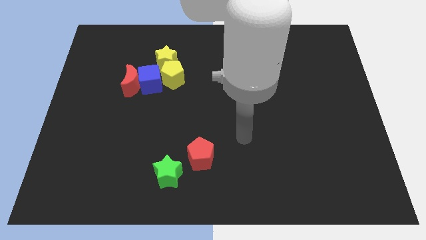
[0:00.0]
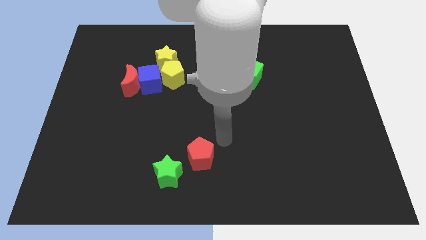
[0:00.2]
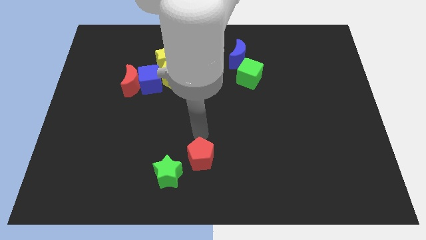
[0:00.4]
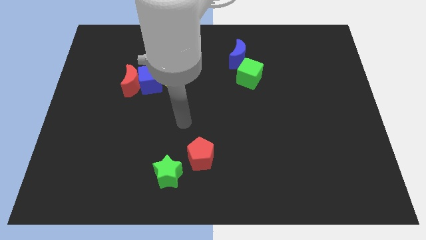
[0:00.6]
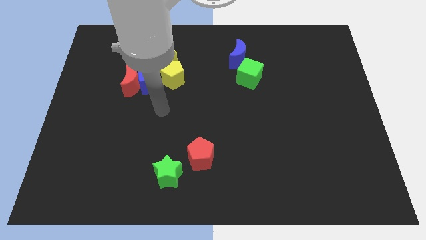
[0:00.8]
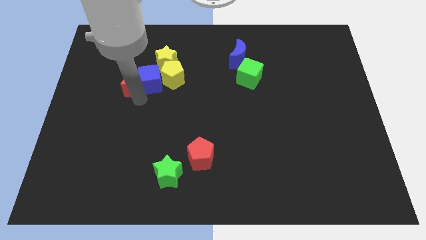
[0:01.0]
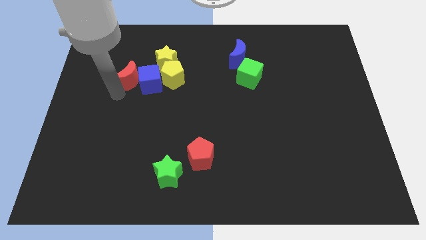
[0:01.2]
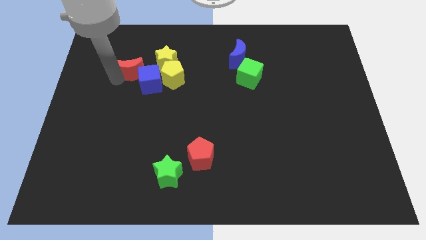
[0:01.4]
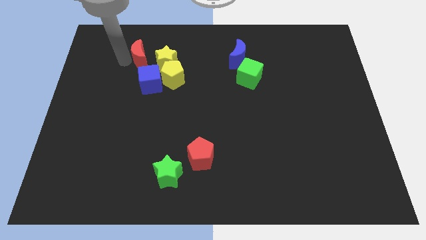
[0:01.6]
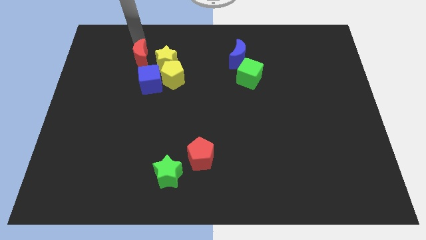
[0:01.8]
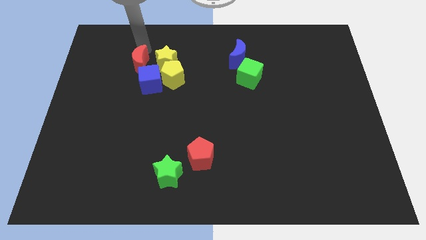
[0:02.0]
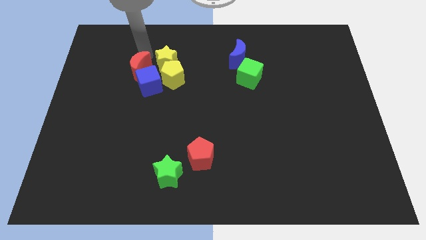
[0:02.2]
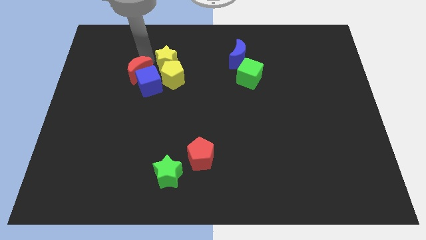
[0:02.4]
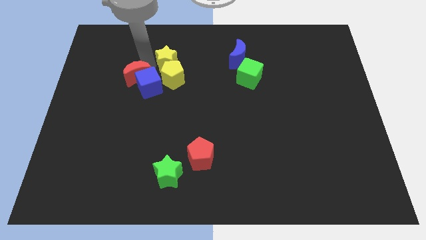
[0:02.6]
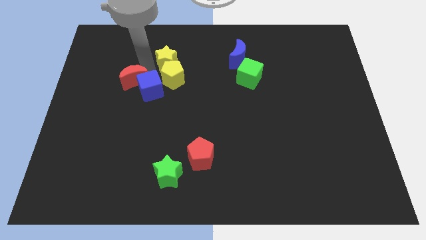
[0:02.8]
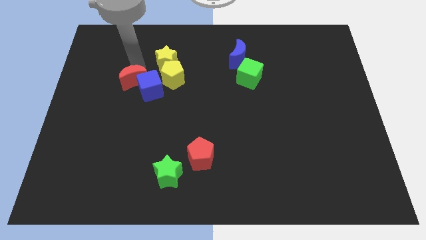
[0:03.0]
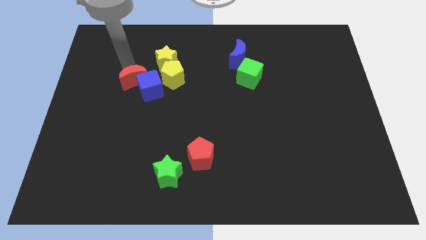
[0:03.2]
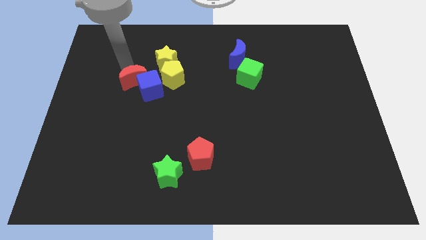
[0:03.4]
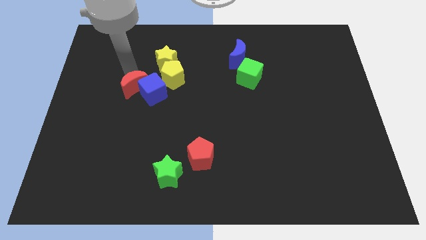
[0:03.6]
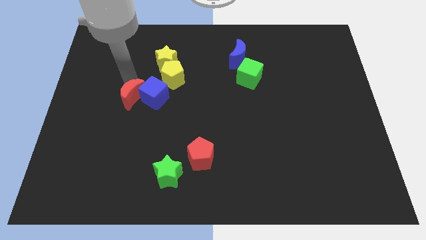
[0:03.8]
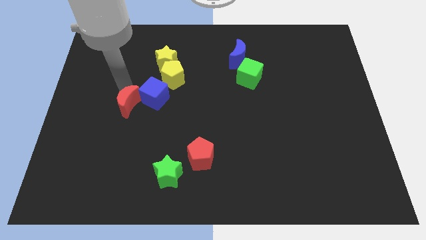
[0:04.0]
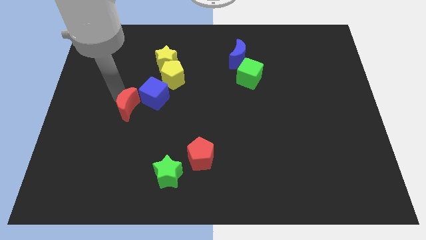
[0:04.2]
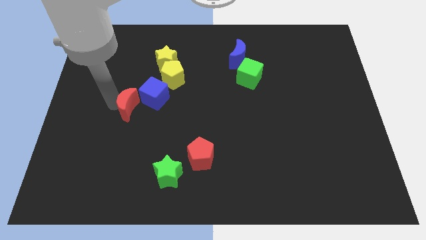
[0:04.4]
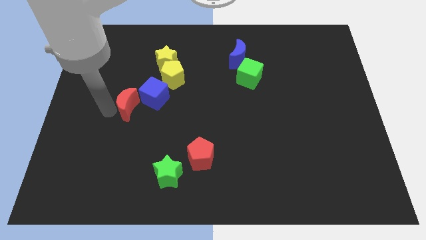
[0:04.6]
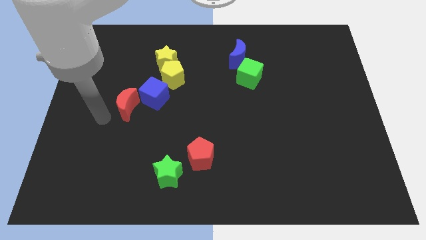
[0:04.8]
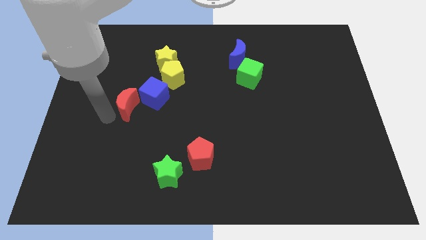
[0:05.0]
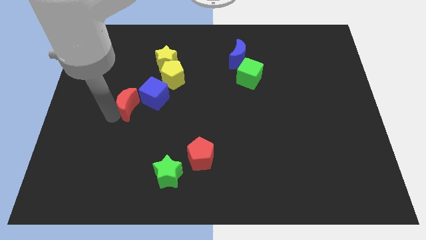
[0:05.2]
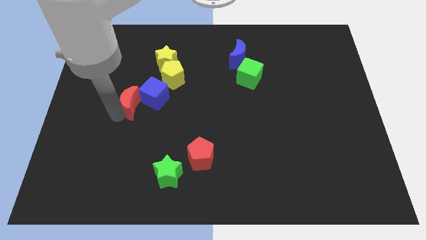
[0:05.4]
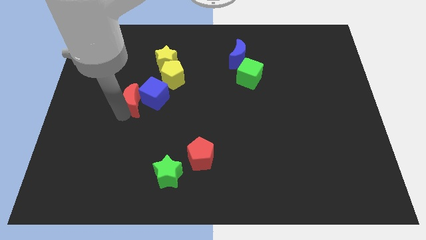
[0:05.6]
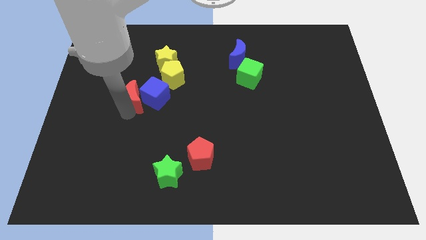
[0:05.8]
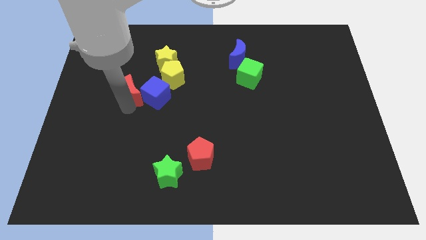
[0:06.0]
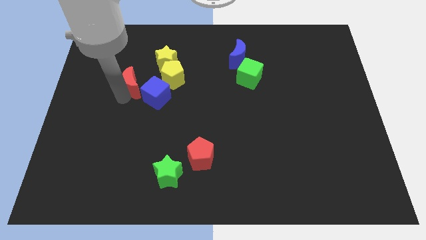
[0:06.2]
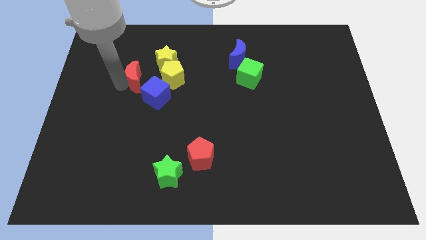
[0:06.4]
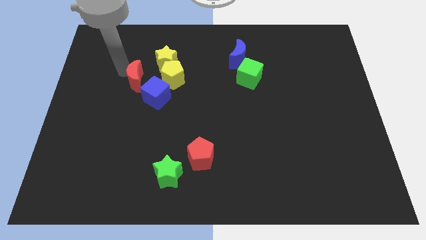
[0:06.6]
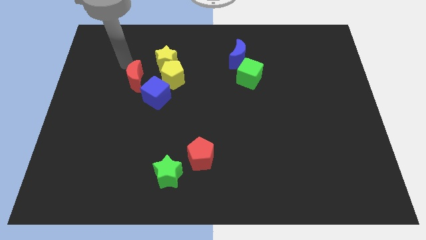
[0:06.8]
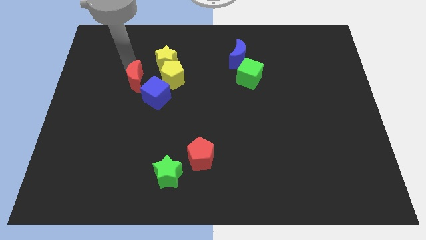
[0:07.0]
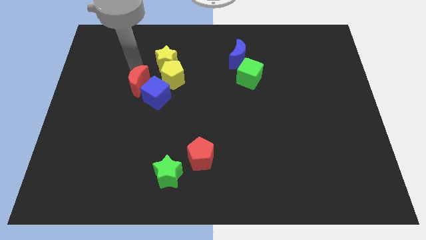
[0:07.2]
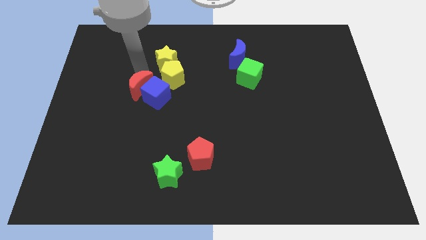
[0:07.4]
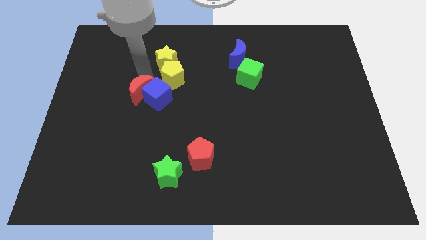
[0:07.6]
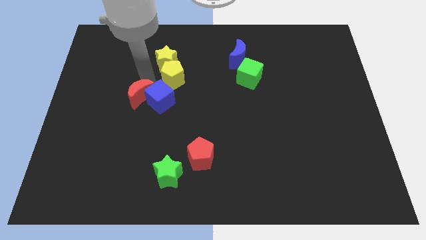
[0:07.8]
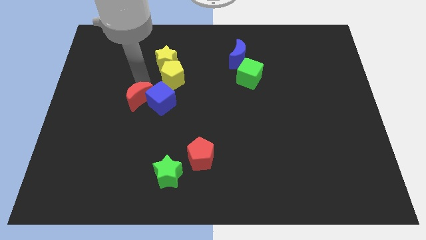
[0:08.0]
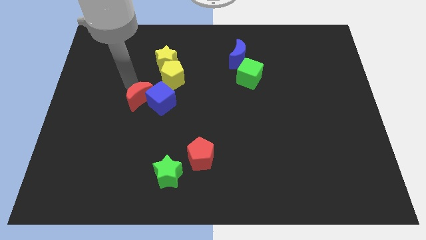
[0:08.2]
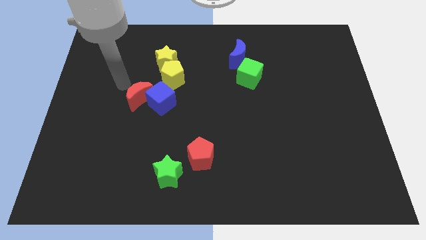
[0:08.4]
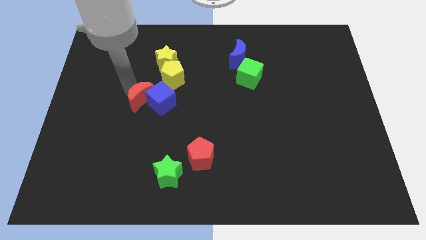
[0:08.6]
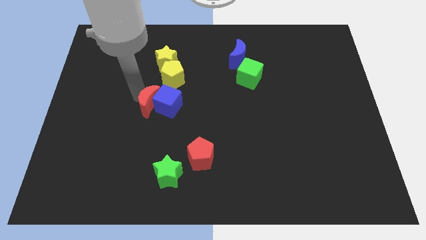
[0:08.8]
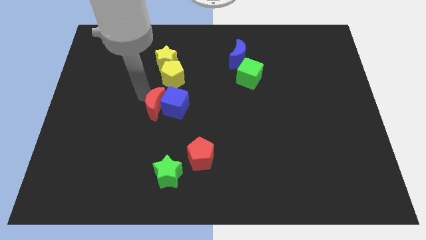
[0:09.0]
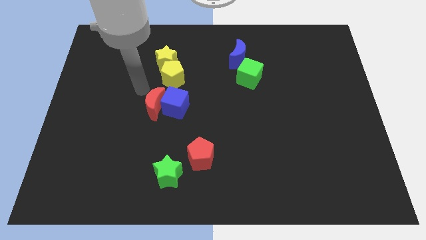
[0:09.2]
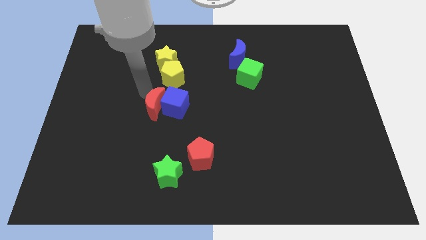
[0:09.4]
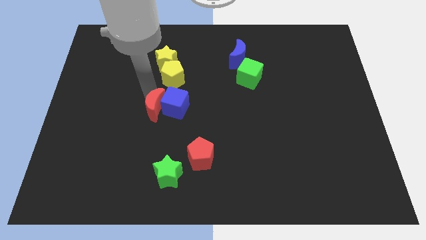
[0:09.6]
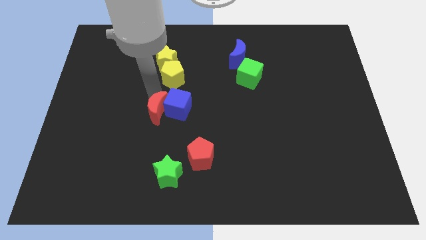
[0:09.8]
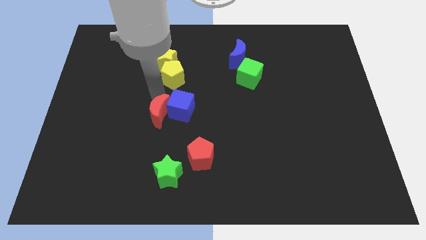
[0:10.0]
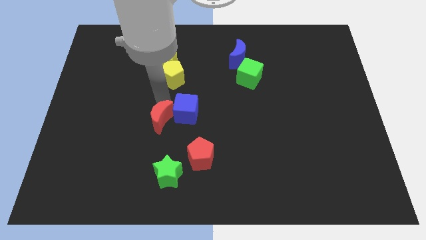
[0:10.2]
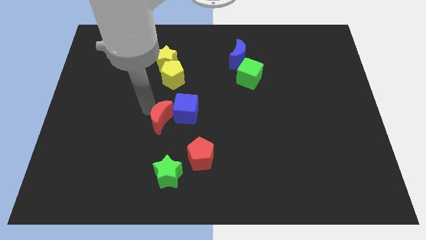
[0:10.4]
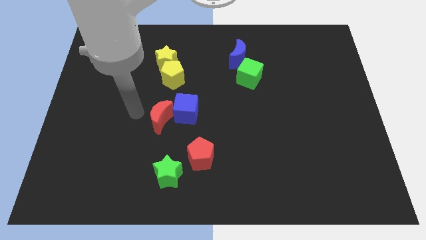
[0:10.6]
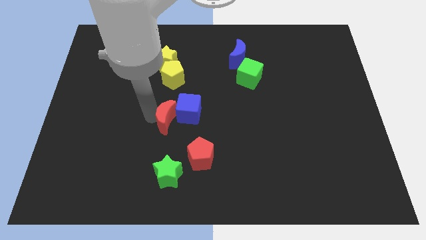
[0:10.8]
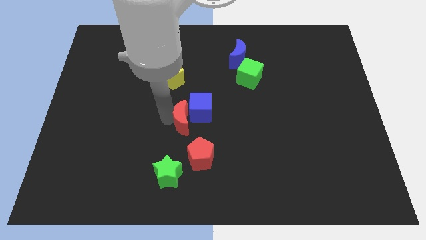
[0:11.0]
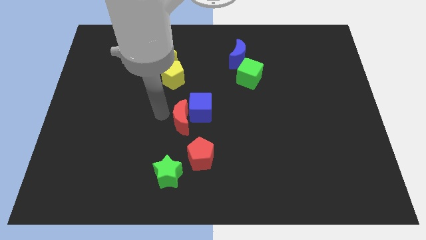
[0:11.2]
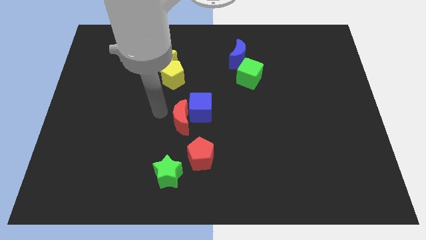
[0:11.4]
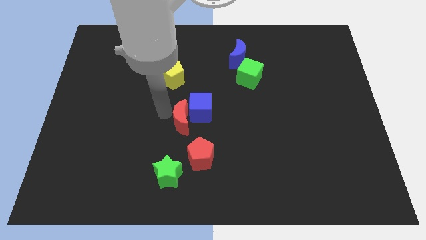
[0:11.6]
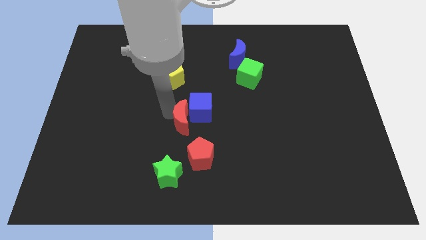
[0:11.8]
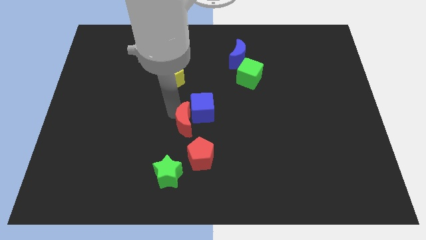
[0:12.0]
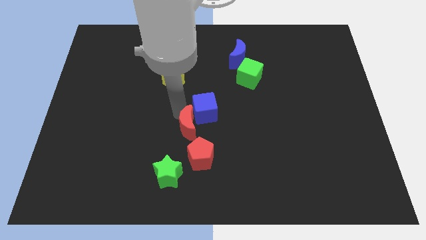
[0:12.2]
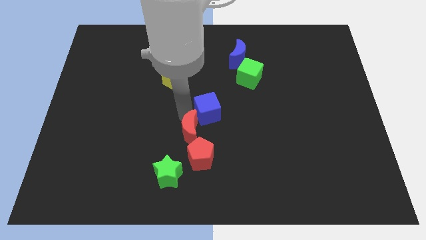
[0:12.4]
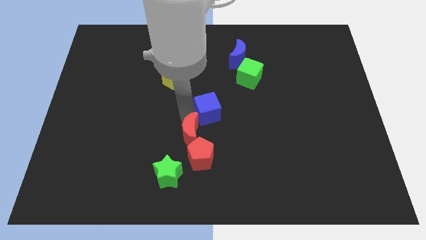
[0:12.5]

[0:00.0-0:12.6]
move the red moon to the top right of the green star
